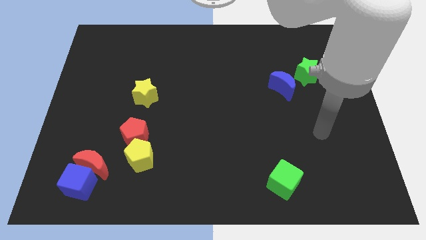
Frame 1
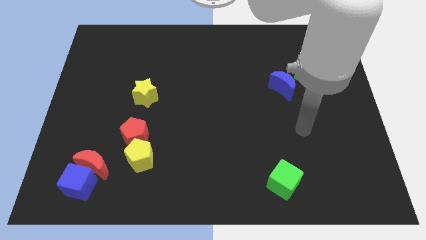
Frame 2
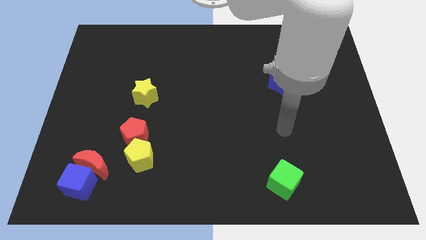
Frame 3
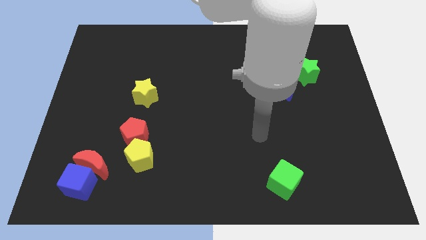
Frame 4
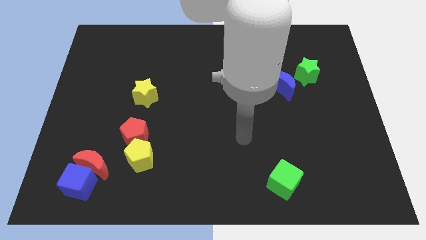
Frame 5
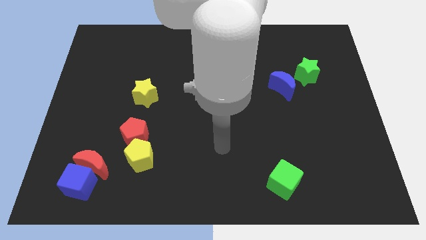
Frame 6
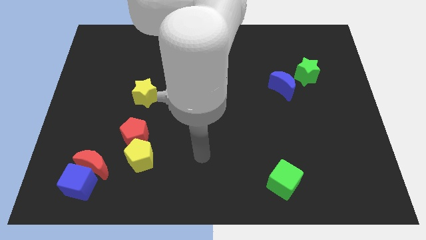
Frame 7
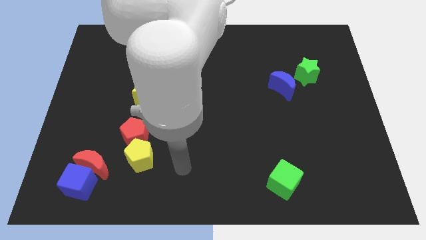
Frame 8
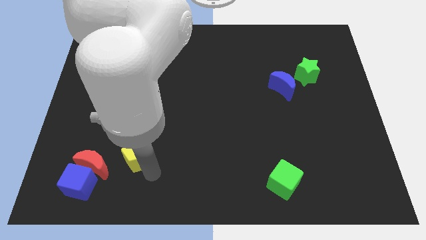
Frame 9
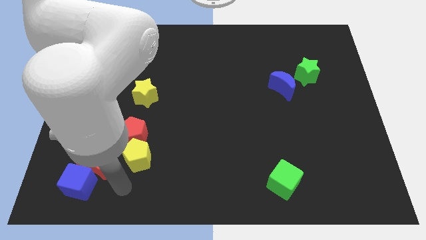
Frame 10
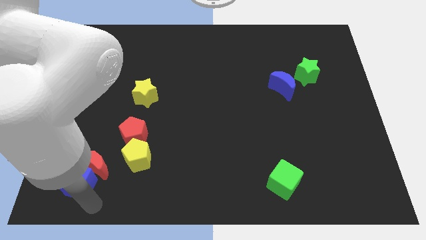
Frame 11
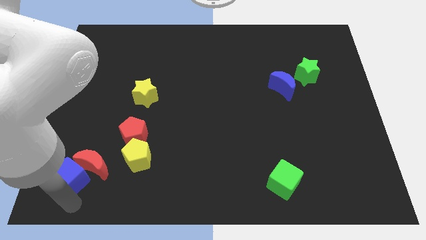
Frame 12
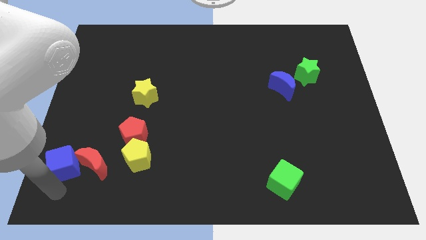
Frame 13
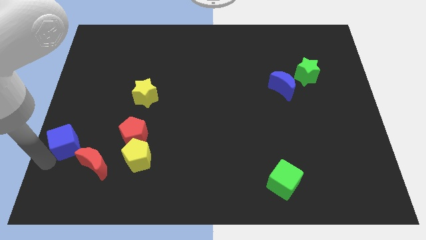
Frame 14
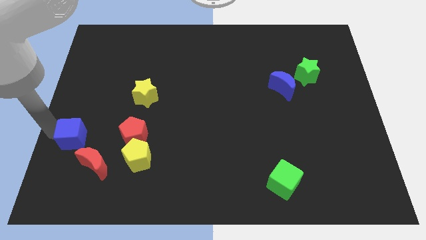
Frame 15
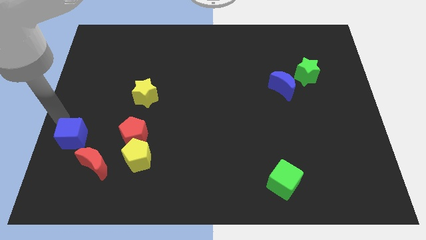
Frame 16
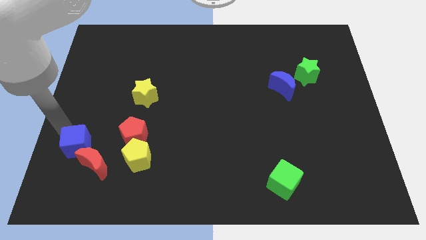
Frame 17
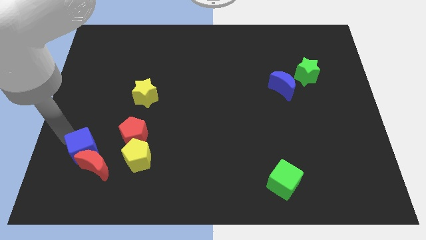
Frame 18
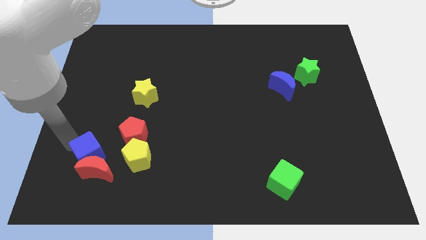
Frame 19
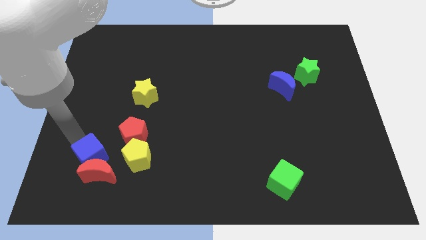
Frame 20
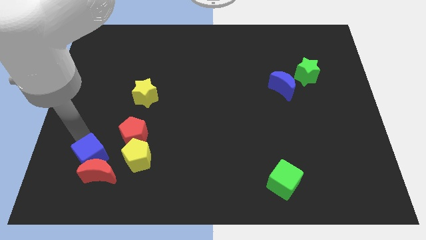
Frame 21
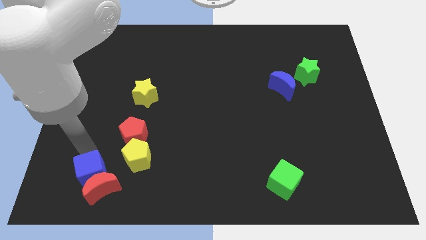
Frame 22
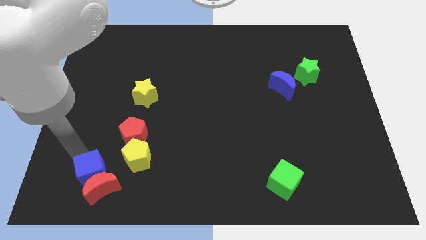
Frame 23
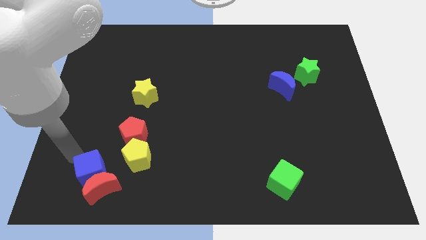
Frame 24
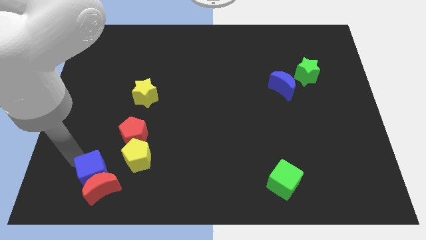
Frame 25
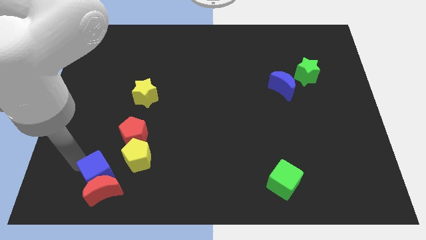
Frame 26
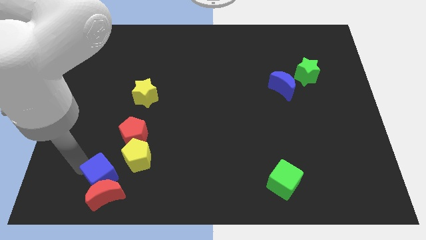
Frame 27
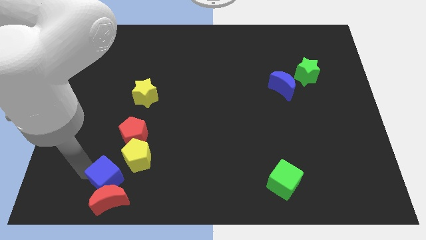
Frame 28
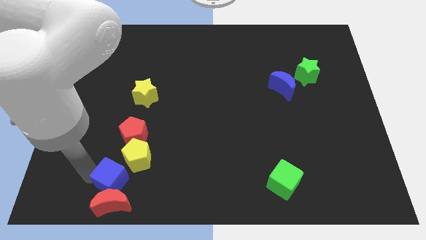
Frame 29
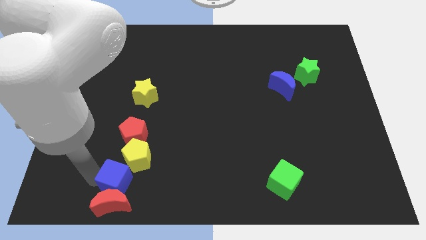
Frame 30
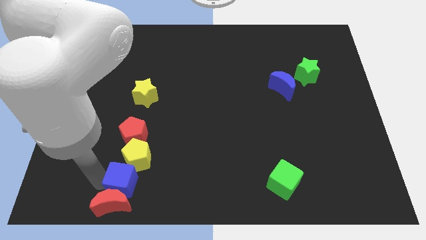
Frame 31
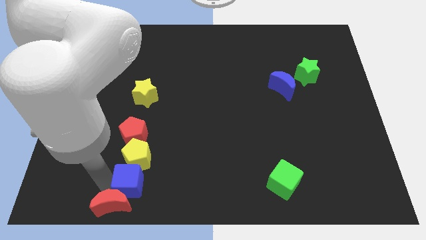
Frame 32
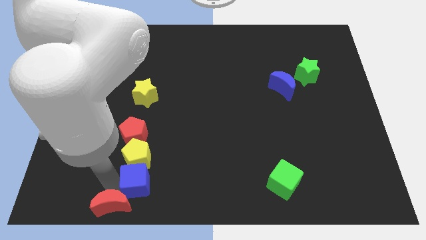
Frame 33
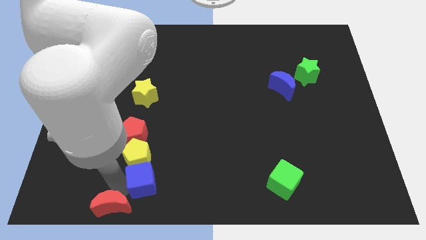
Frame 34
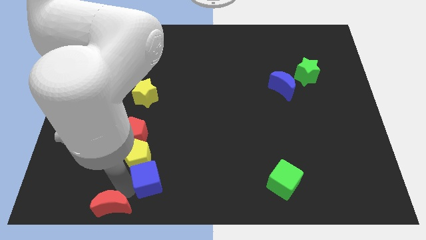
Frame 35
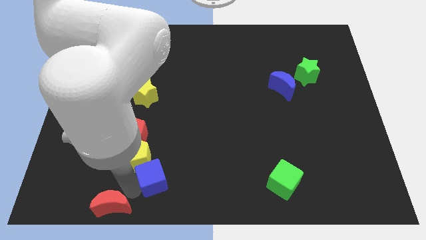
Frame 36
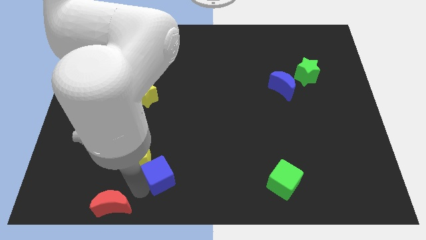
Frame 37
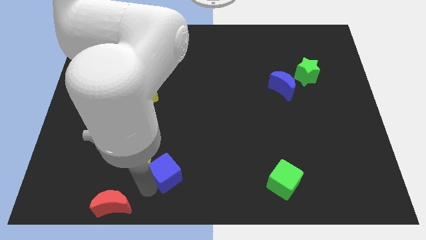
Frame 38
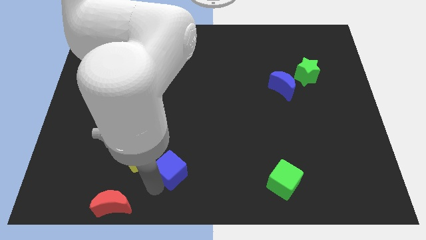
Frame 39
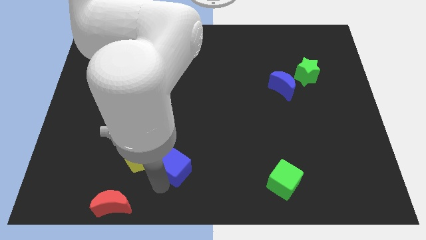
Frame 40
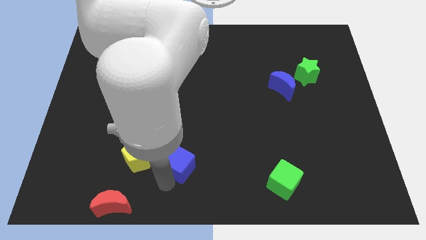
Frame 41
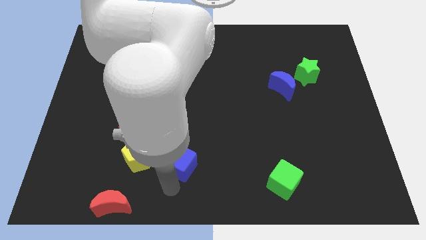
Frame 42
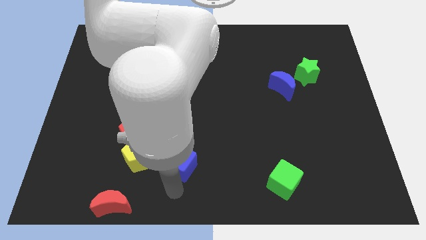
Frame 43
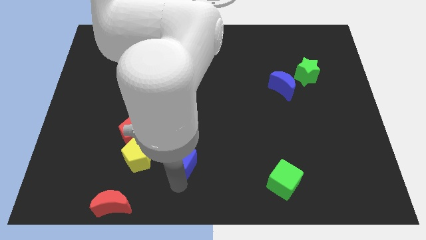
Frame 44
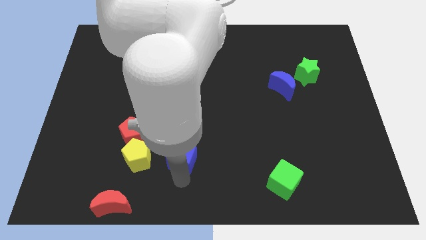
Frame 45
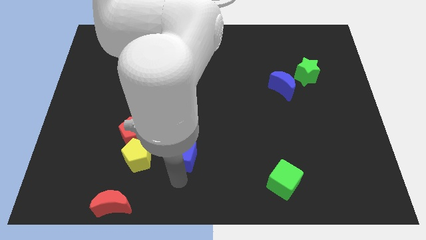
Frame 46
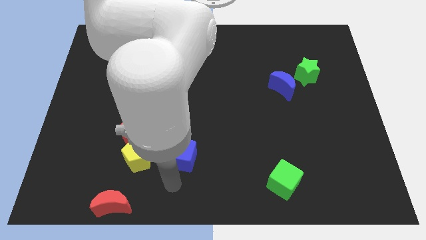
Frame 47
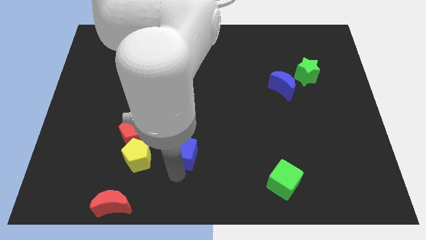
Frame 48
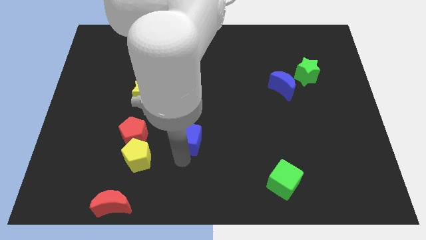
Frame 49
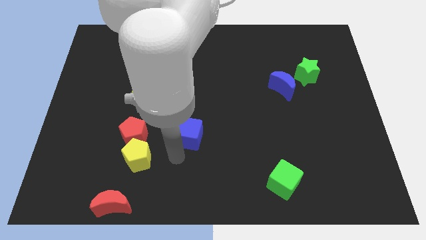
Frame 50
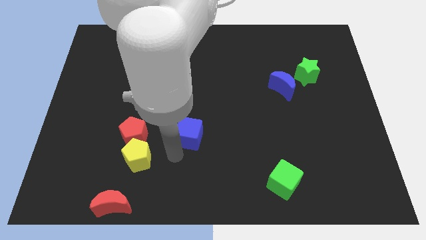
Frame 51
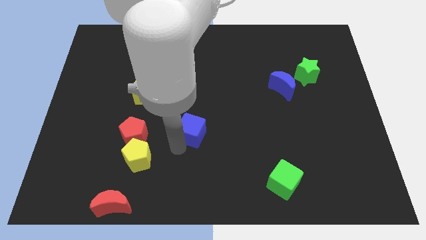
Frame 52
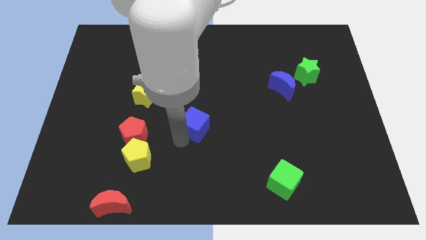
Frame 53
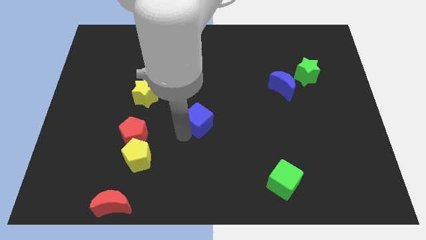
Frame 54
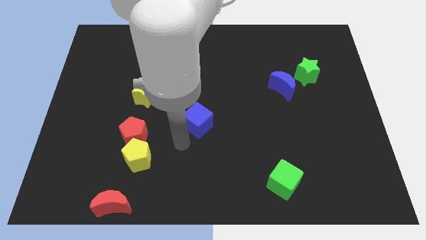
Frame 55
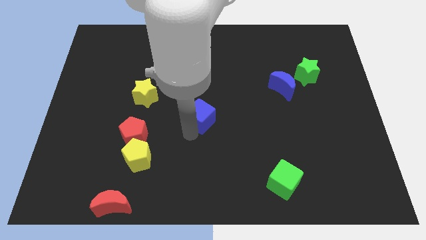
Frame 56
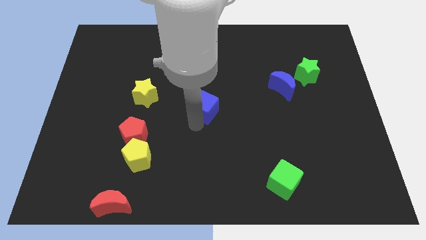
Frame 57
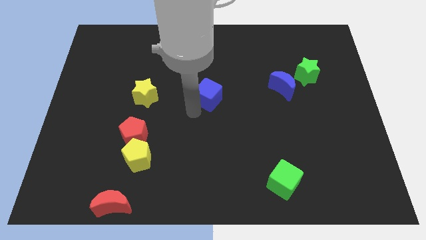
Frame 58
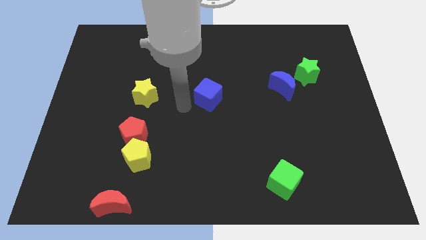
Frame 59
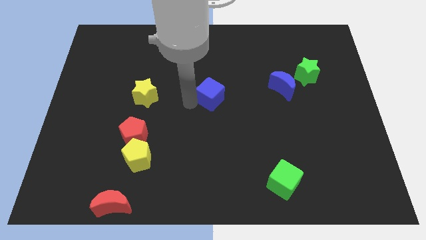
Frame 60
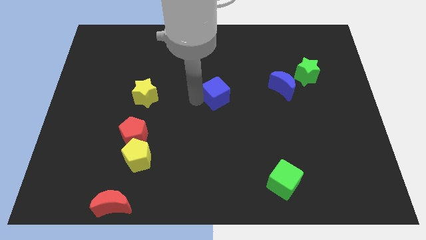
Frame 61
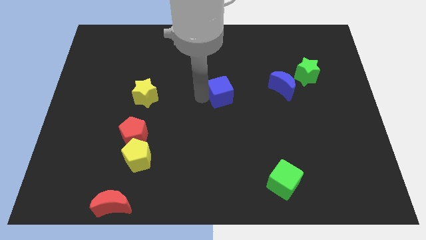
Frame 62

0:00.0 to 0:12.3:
push the blue cube left of the blue moon

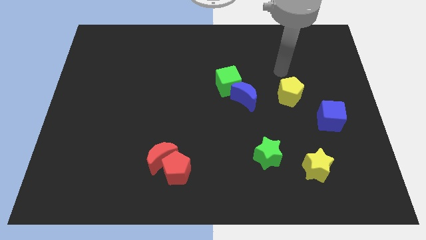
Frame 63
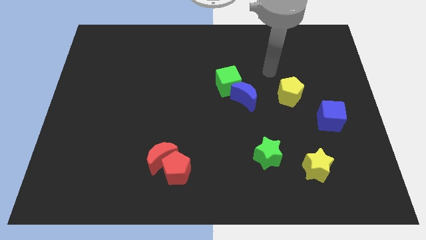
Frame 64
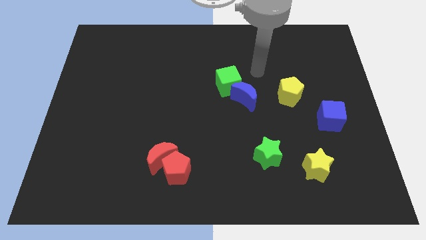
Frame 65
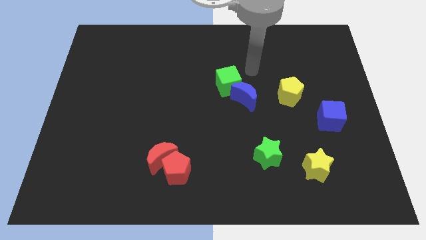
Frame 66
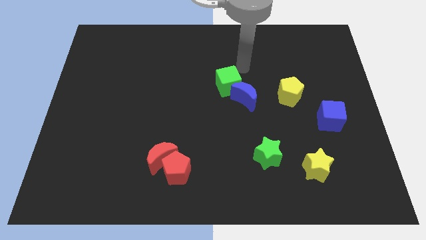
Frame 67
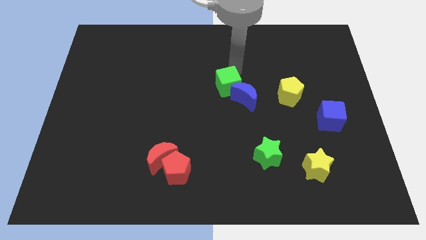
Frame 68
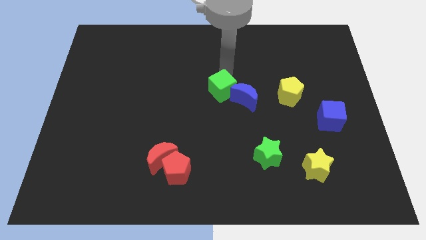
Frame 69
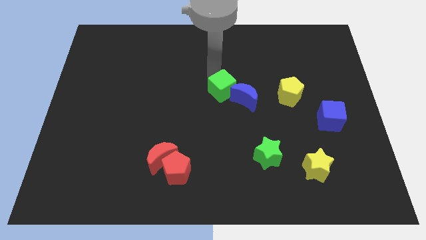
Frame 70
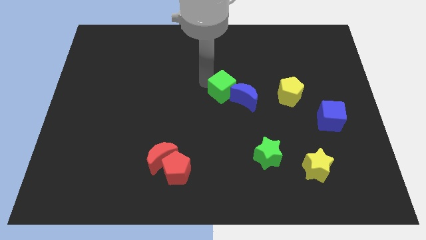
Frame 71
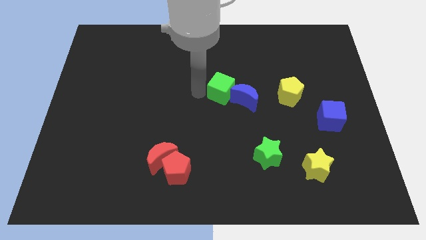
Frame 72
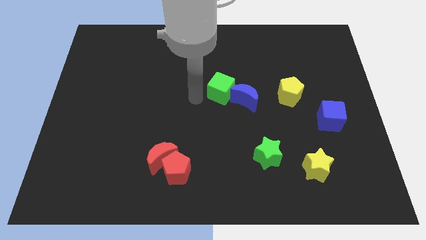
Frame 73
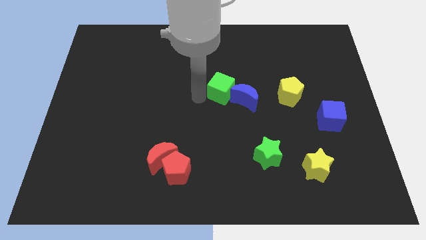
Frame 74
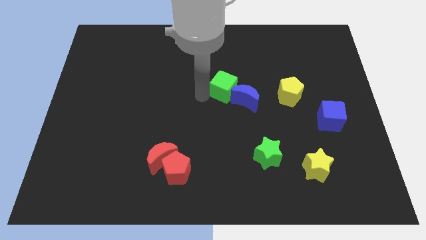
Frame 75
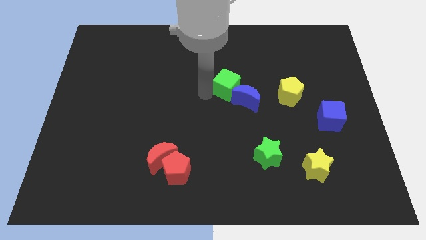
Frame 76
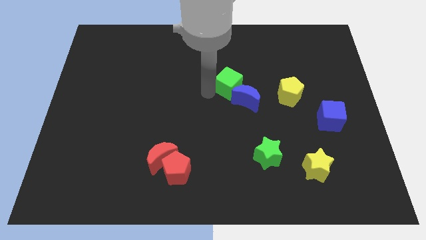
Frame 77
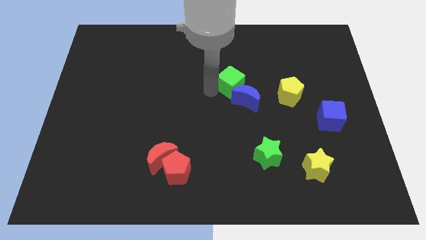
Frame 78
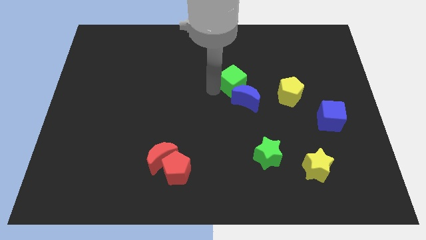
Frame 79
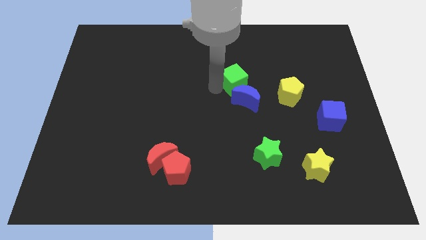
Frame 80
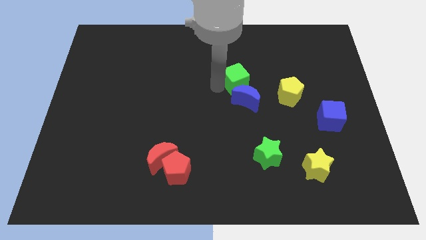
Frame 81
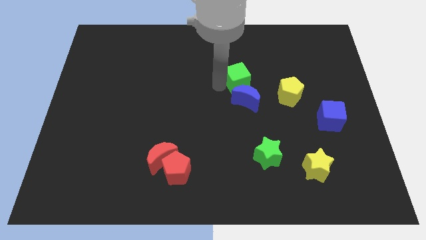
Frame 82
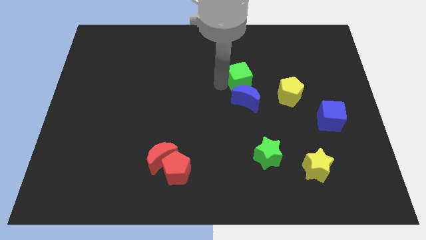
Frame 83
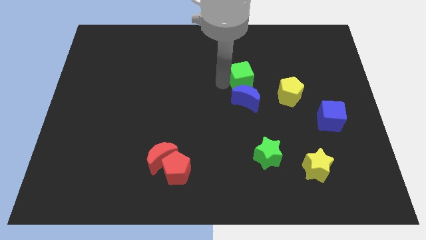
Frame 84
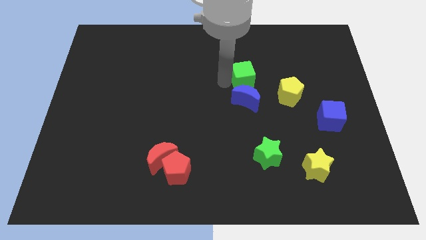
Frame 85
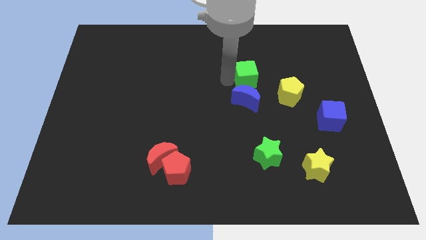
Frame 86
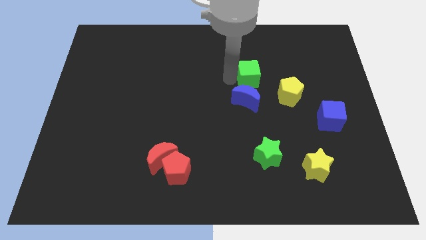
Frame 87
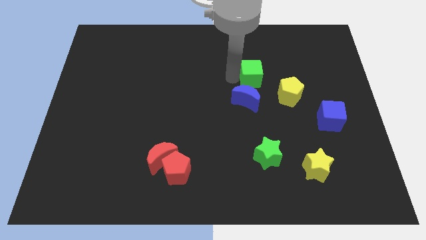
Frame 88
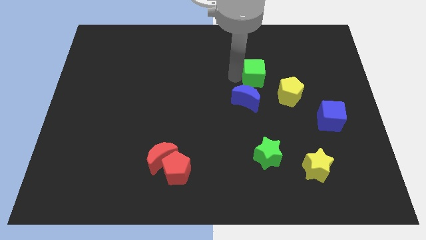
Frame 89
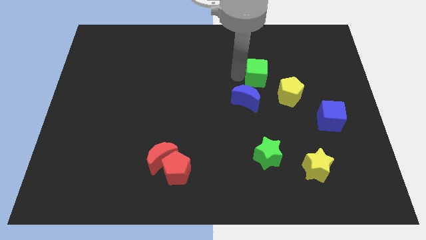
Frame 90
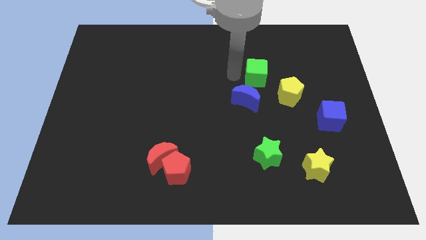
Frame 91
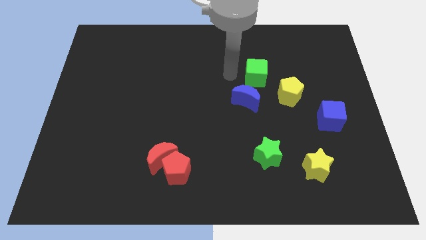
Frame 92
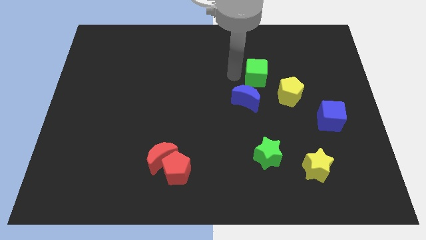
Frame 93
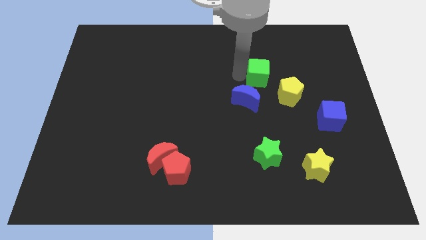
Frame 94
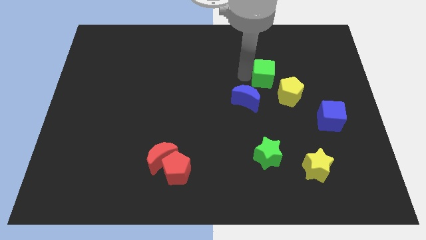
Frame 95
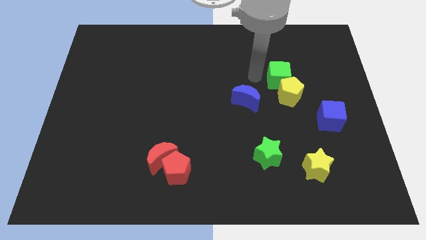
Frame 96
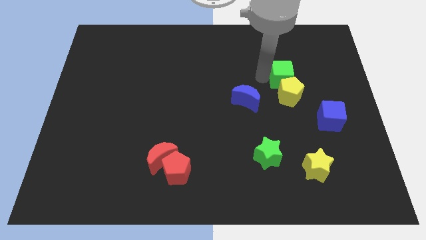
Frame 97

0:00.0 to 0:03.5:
slide the green cube diagonally up and to the right of the yellow pentagon
